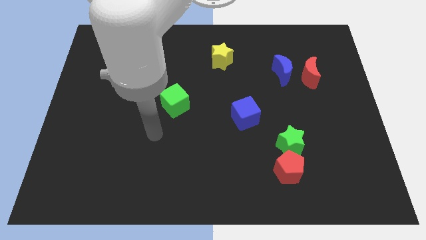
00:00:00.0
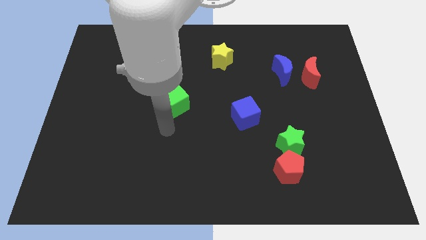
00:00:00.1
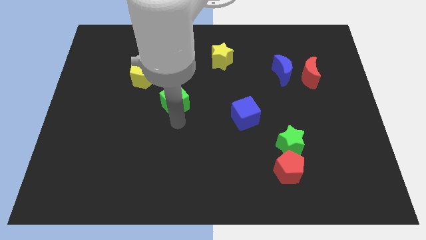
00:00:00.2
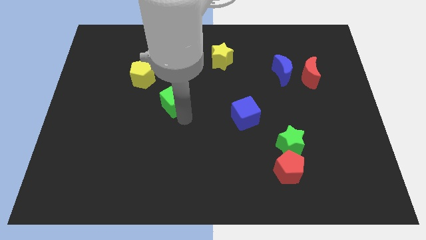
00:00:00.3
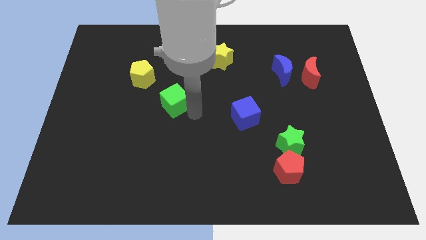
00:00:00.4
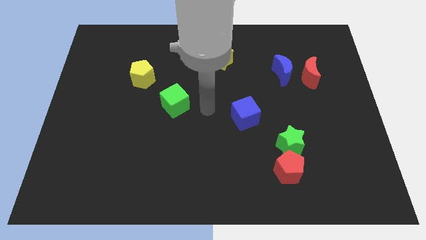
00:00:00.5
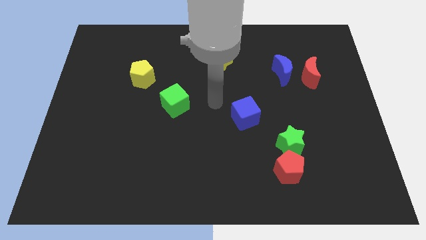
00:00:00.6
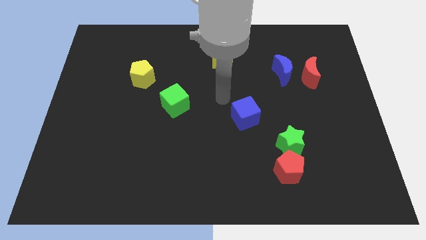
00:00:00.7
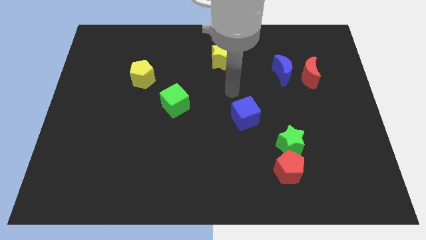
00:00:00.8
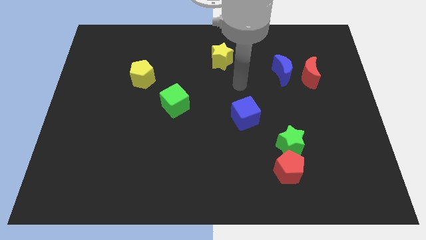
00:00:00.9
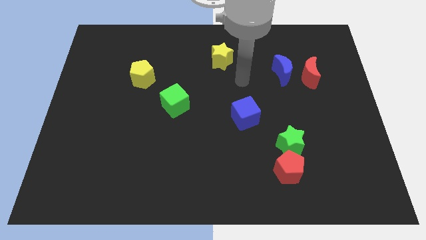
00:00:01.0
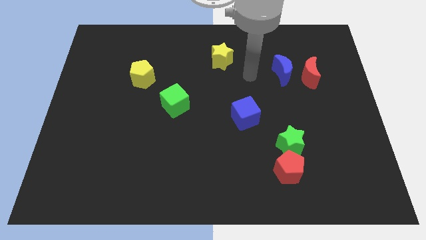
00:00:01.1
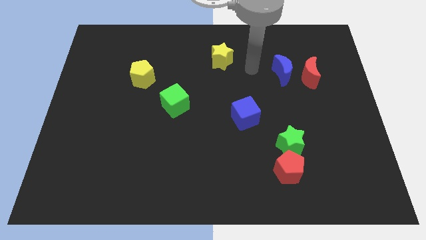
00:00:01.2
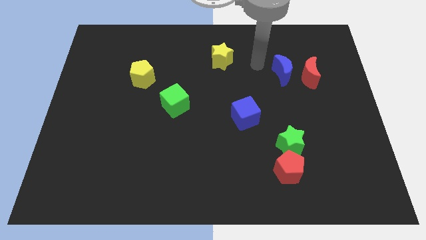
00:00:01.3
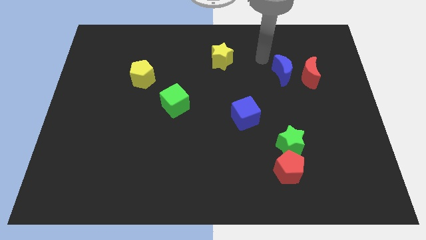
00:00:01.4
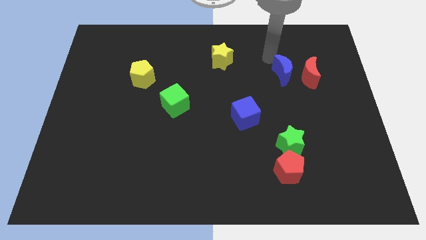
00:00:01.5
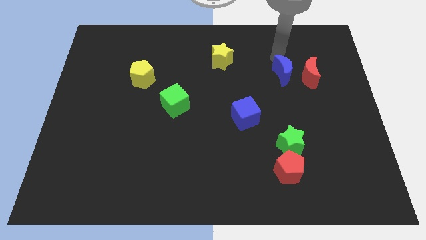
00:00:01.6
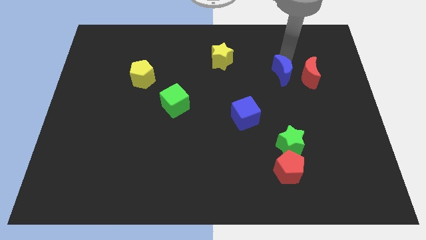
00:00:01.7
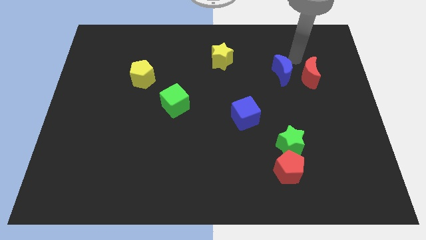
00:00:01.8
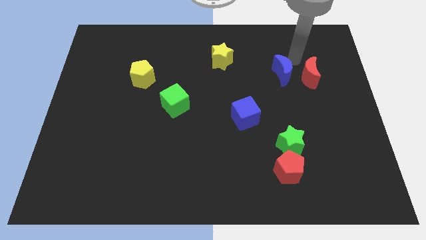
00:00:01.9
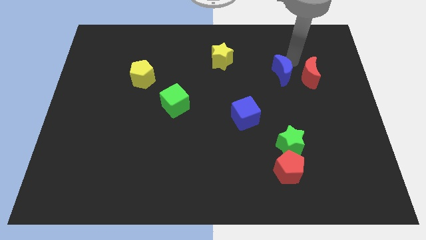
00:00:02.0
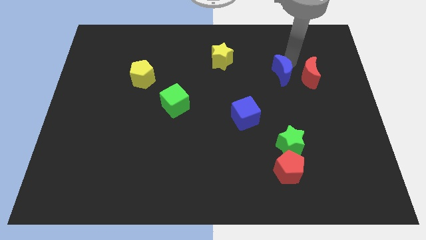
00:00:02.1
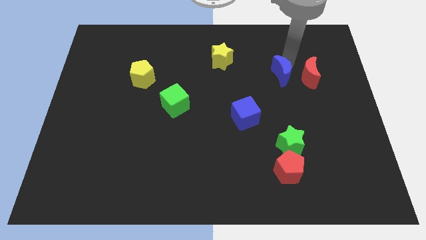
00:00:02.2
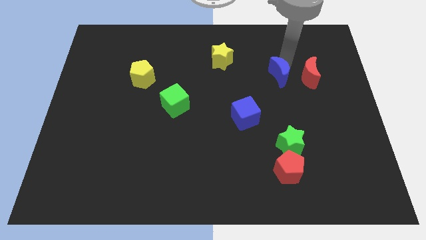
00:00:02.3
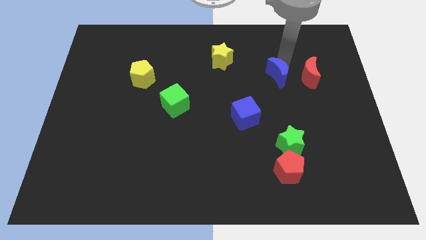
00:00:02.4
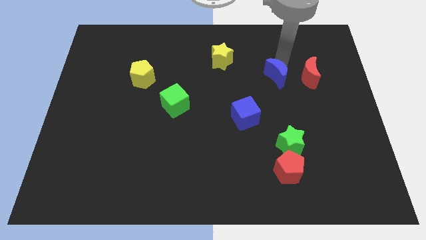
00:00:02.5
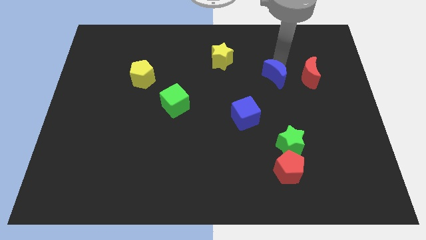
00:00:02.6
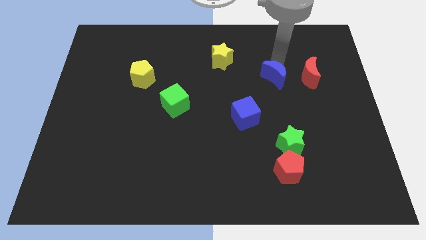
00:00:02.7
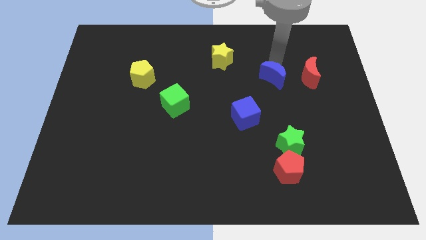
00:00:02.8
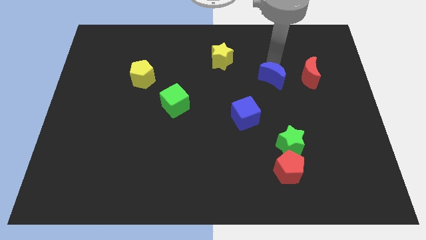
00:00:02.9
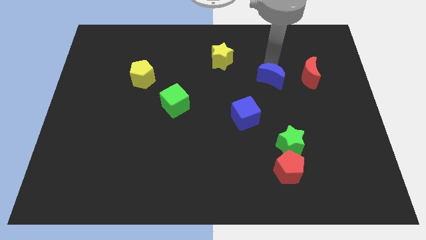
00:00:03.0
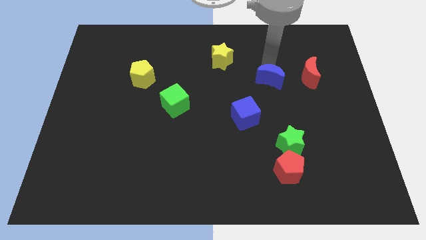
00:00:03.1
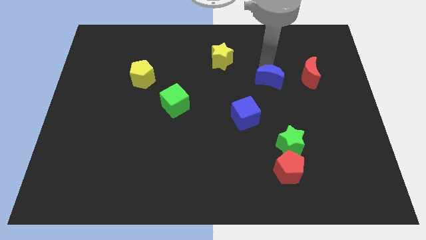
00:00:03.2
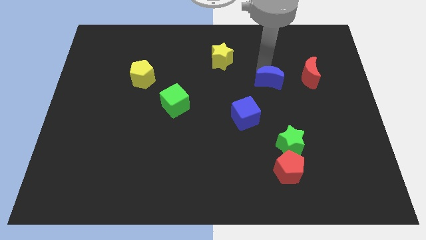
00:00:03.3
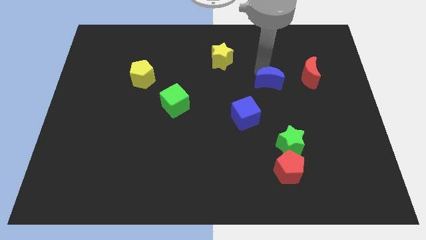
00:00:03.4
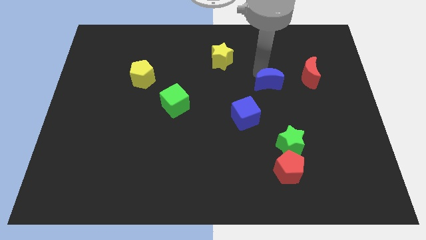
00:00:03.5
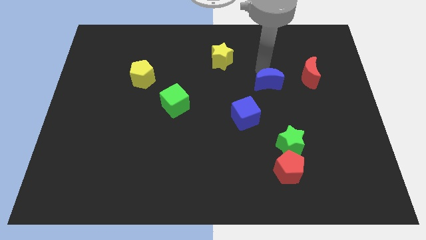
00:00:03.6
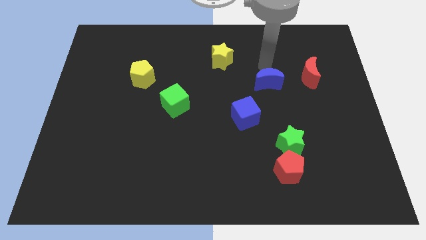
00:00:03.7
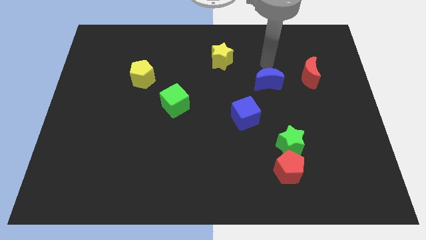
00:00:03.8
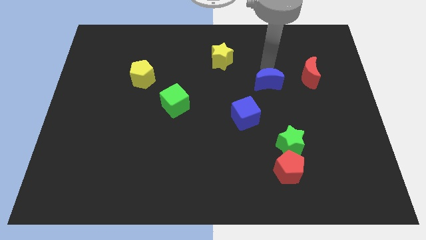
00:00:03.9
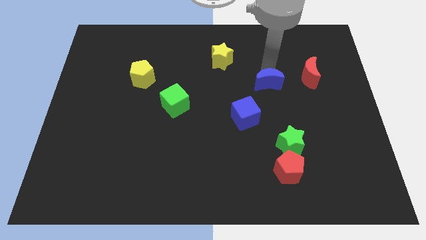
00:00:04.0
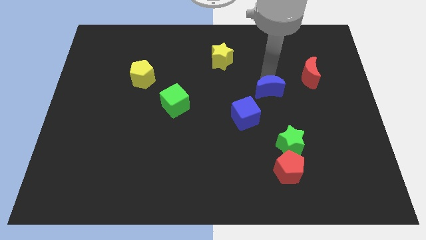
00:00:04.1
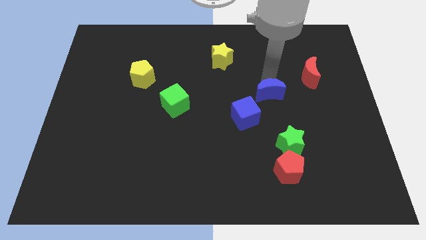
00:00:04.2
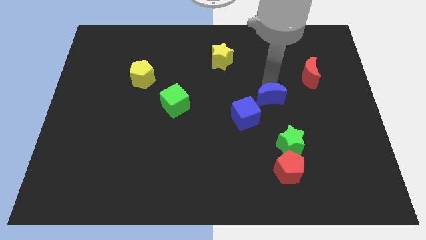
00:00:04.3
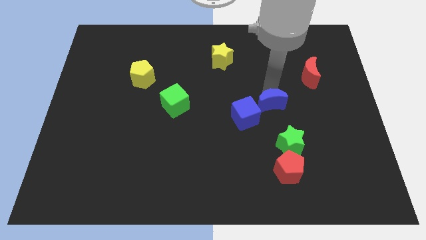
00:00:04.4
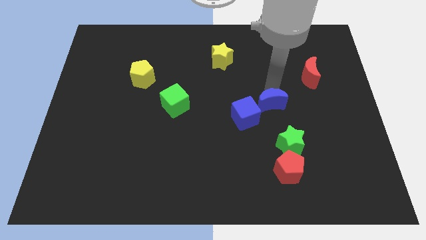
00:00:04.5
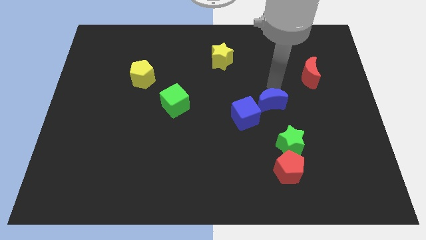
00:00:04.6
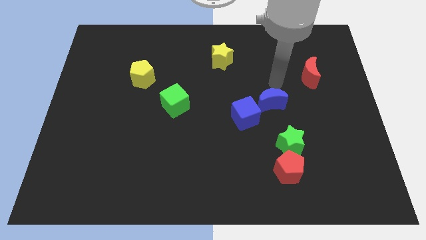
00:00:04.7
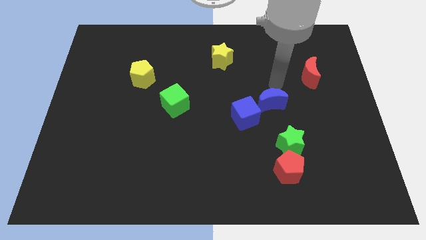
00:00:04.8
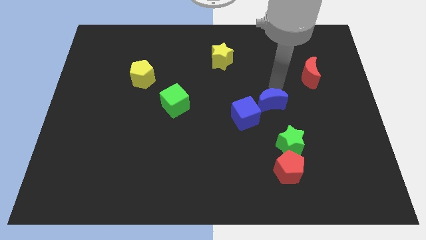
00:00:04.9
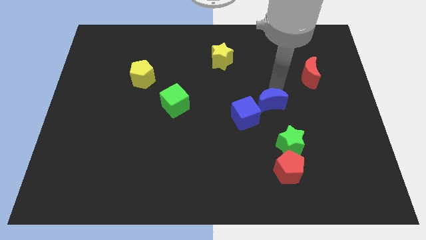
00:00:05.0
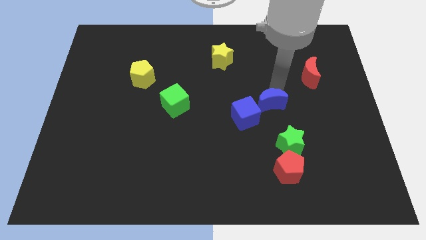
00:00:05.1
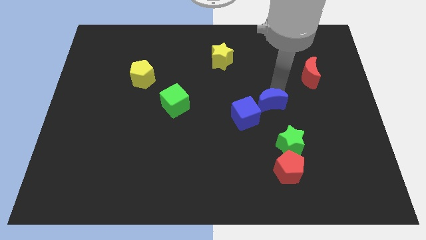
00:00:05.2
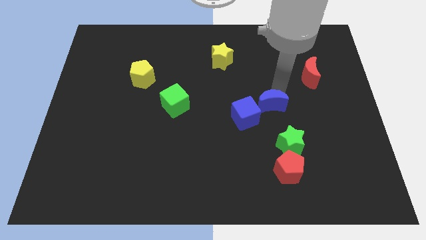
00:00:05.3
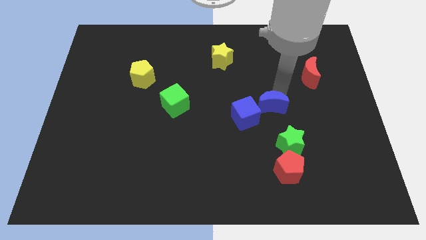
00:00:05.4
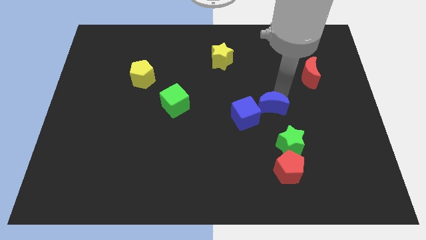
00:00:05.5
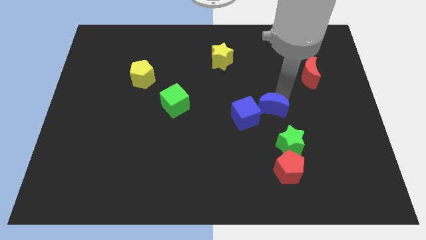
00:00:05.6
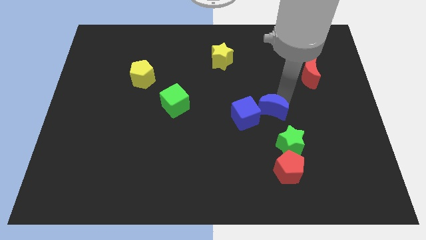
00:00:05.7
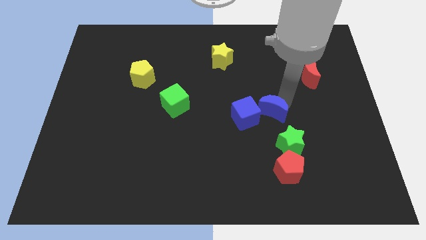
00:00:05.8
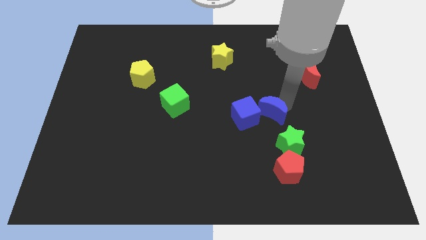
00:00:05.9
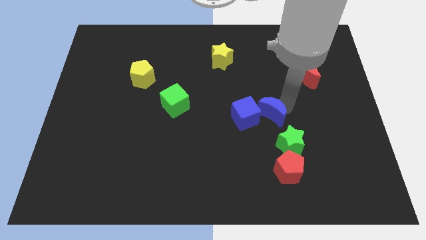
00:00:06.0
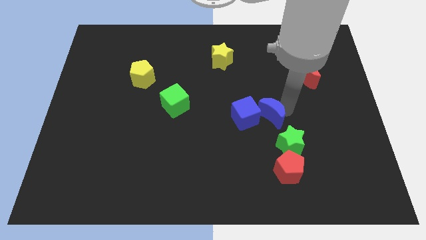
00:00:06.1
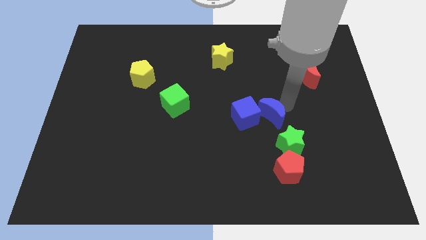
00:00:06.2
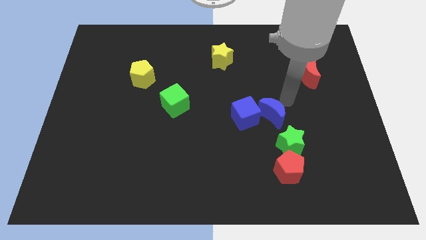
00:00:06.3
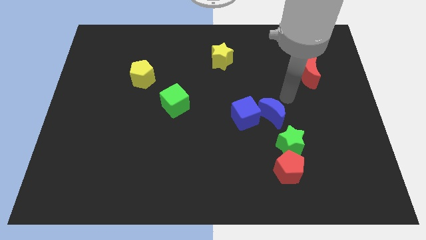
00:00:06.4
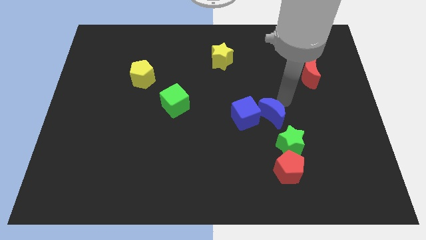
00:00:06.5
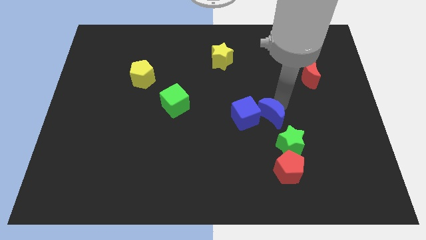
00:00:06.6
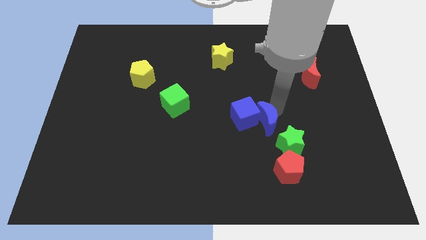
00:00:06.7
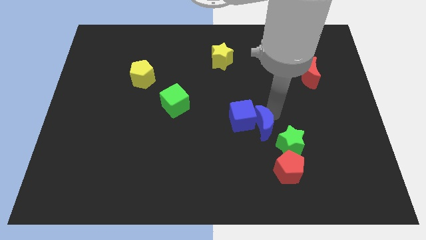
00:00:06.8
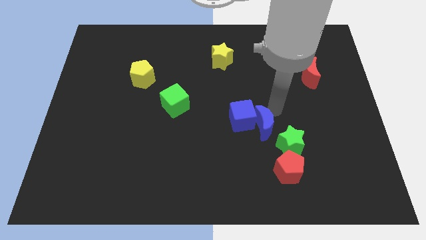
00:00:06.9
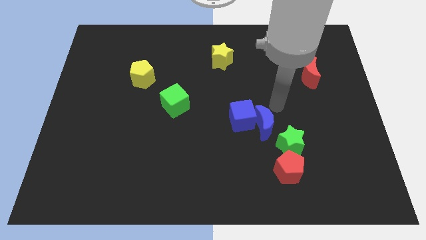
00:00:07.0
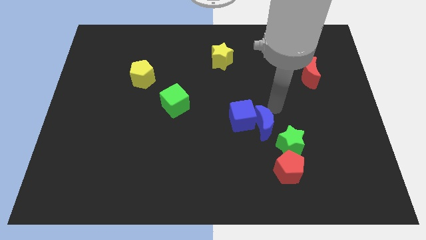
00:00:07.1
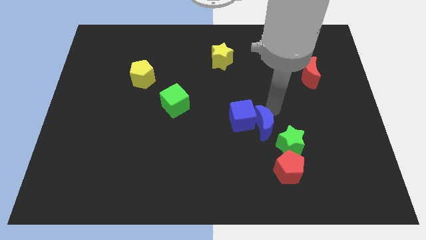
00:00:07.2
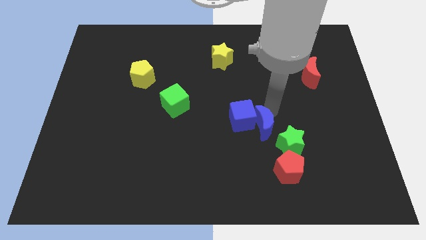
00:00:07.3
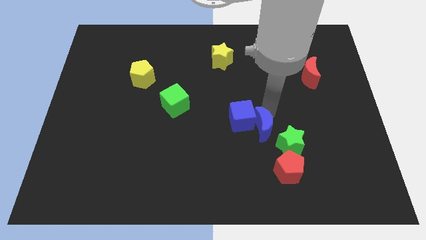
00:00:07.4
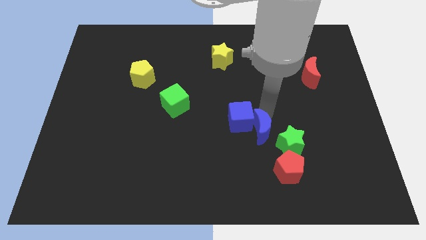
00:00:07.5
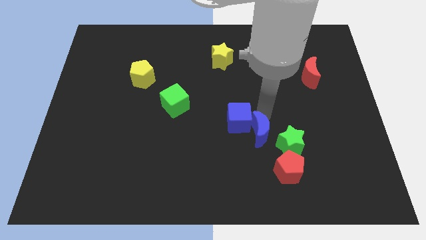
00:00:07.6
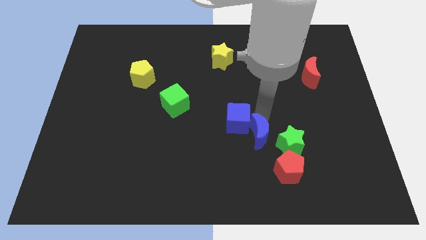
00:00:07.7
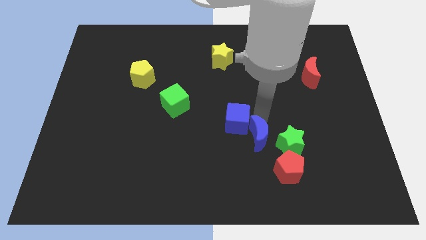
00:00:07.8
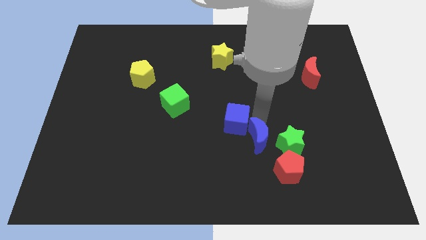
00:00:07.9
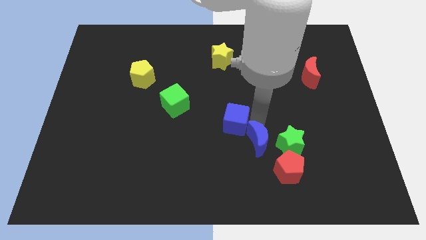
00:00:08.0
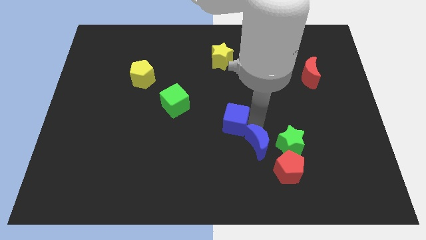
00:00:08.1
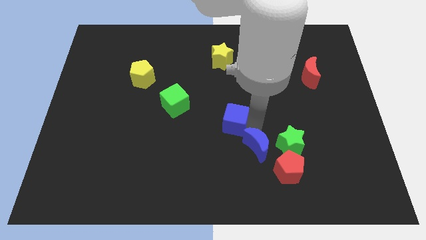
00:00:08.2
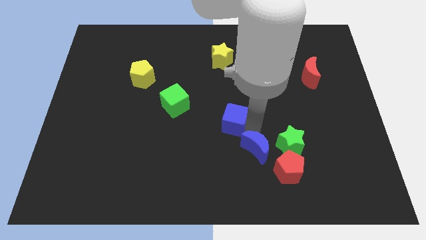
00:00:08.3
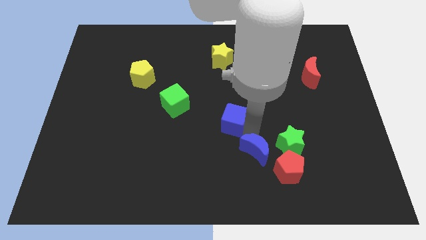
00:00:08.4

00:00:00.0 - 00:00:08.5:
put the blue moon just left of the red pentagon
